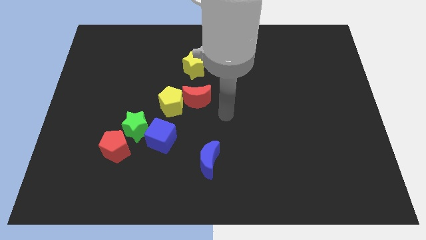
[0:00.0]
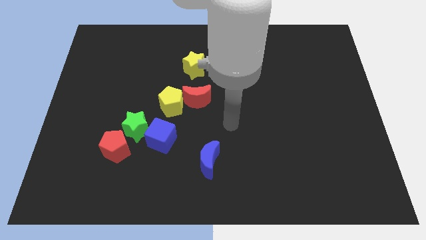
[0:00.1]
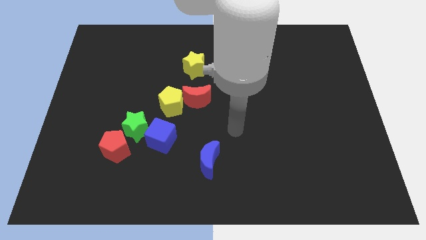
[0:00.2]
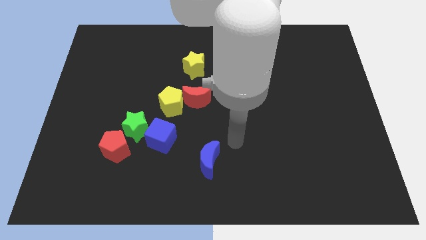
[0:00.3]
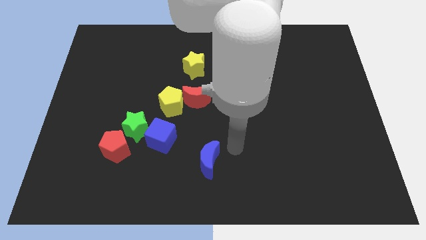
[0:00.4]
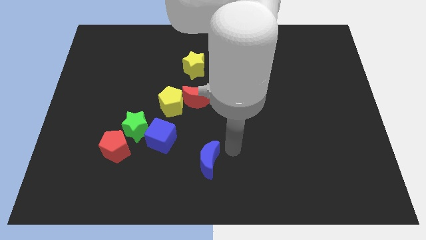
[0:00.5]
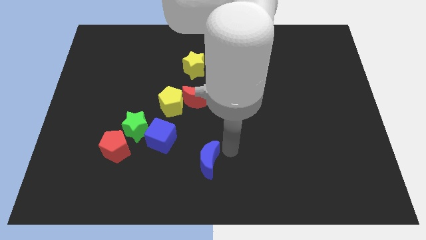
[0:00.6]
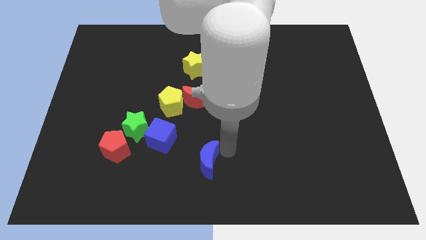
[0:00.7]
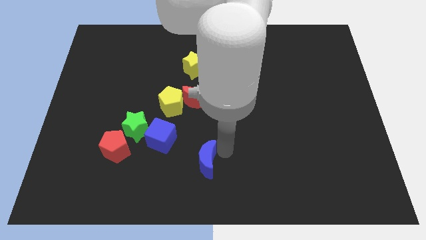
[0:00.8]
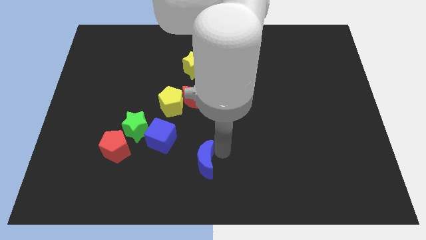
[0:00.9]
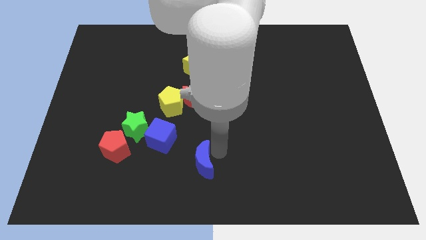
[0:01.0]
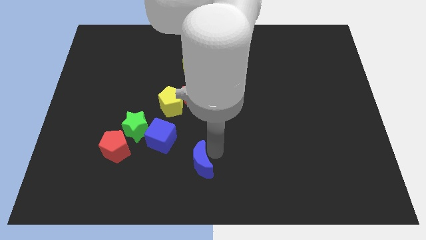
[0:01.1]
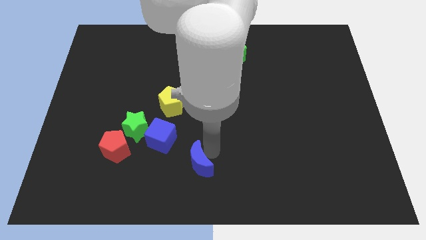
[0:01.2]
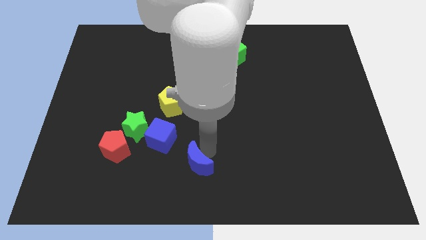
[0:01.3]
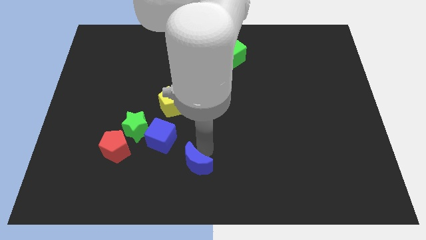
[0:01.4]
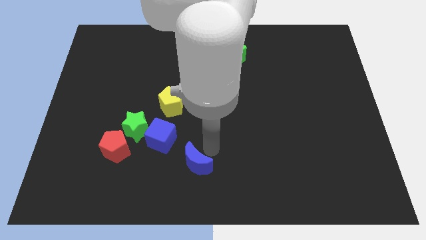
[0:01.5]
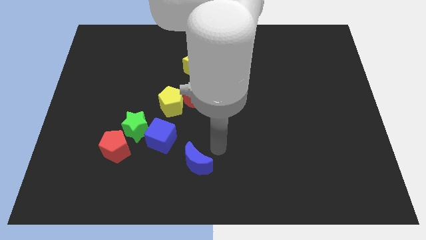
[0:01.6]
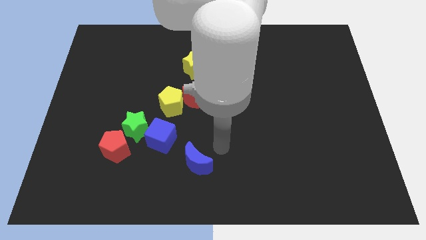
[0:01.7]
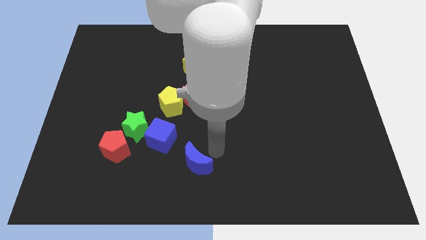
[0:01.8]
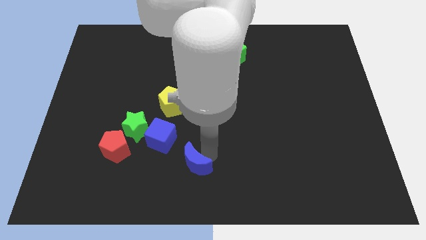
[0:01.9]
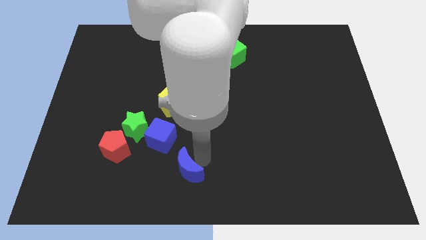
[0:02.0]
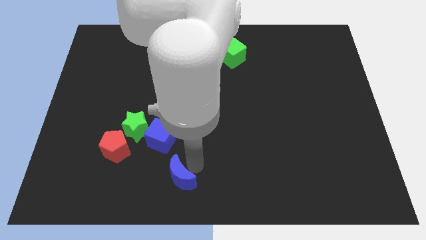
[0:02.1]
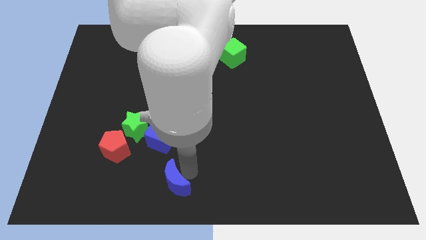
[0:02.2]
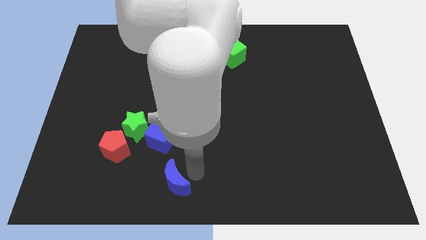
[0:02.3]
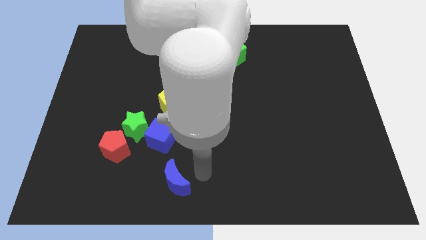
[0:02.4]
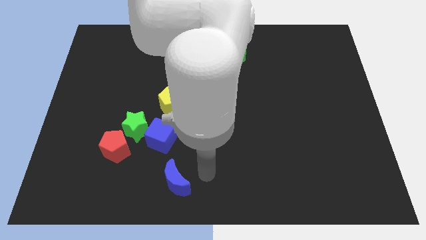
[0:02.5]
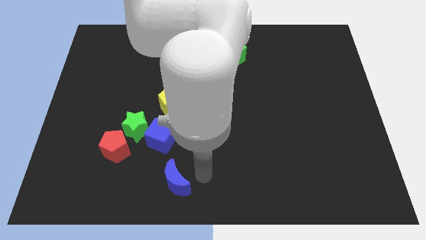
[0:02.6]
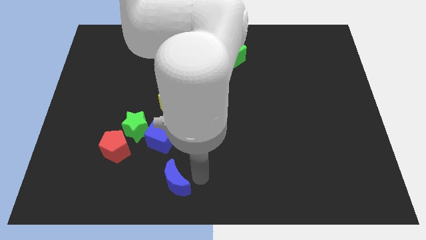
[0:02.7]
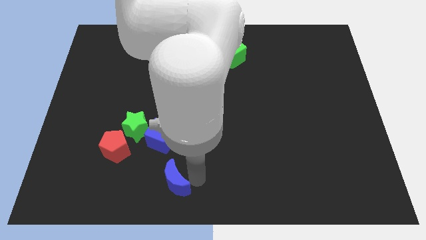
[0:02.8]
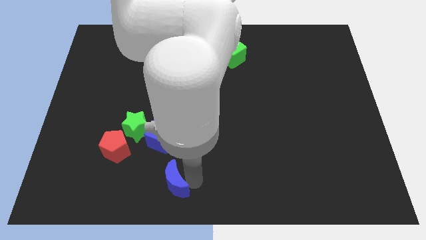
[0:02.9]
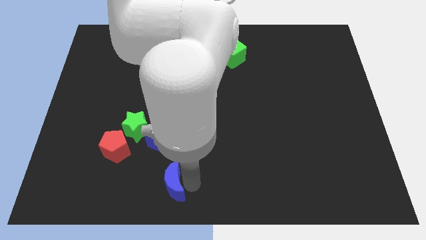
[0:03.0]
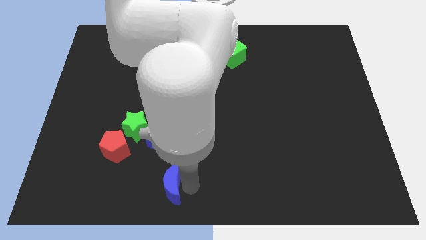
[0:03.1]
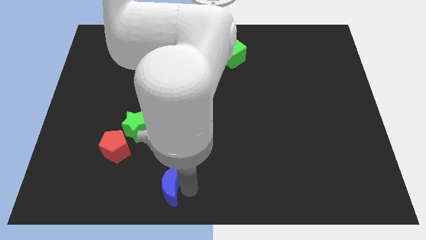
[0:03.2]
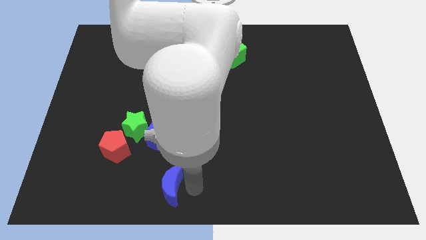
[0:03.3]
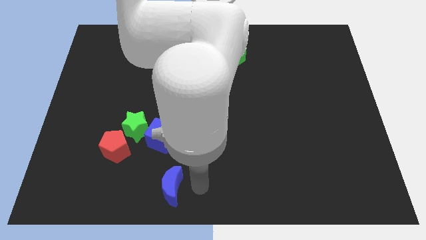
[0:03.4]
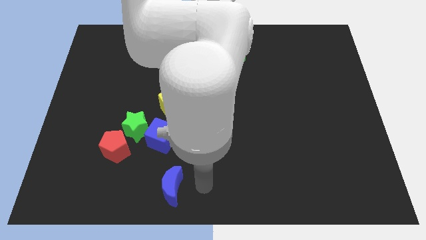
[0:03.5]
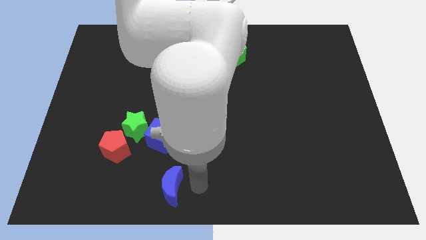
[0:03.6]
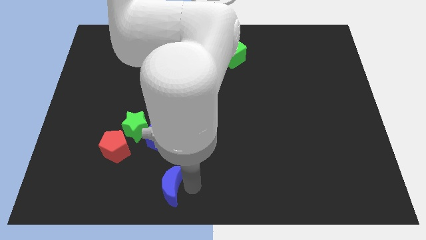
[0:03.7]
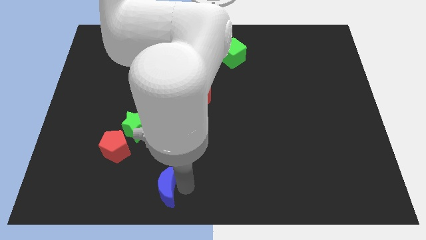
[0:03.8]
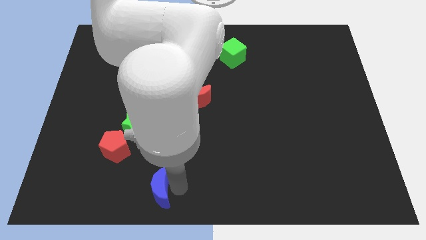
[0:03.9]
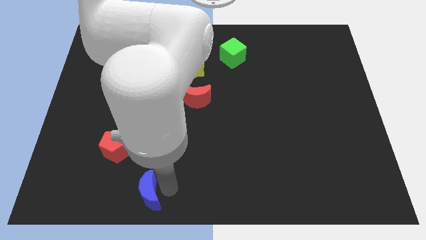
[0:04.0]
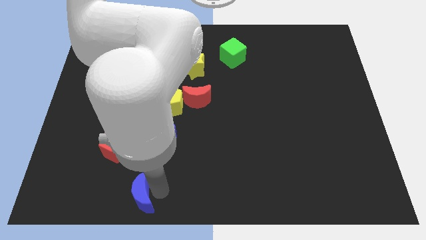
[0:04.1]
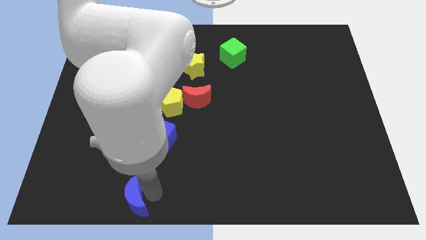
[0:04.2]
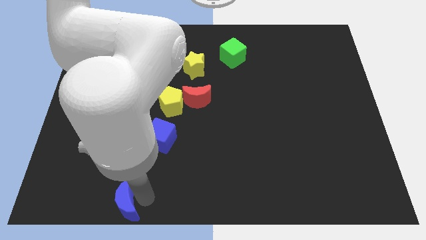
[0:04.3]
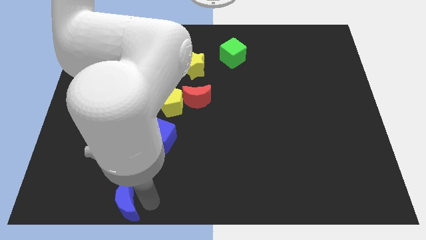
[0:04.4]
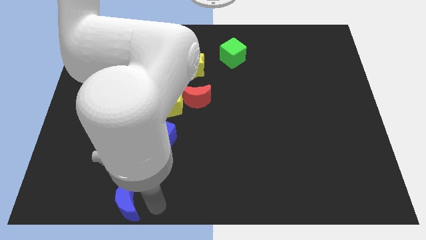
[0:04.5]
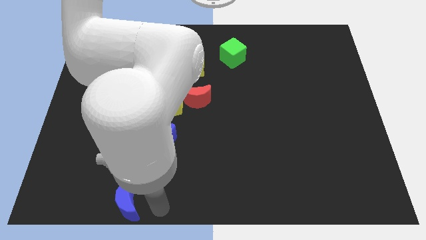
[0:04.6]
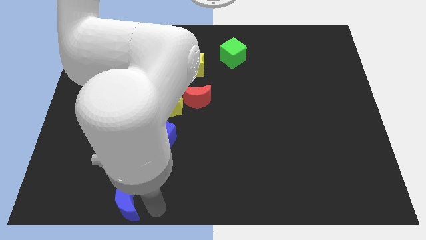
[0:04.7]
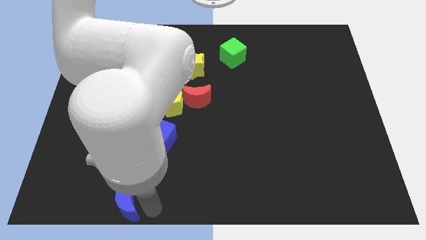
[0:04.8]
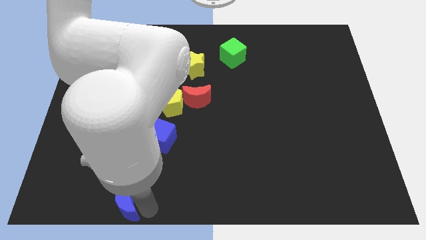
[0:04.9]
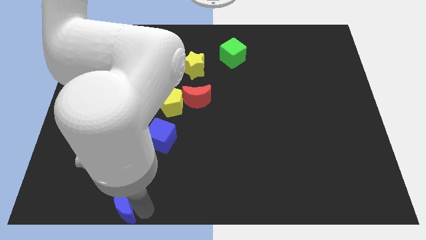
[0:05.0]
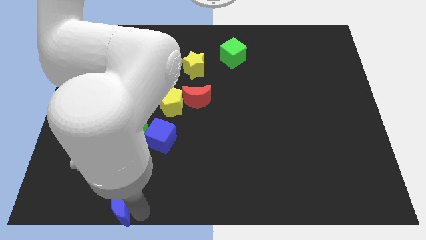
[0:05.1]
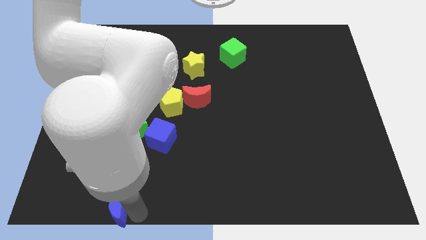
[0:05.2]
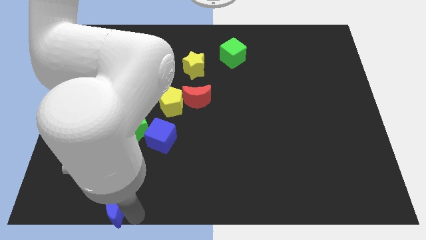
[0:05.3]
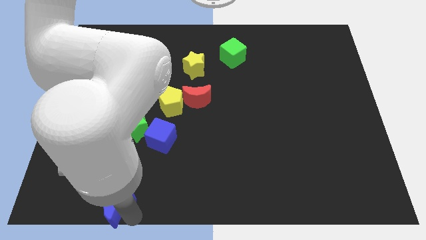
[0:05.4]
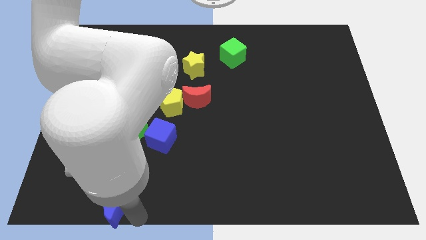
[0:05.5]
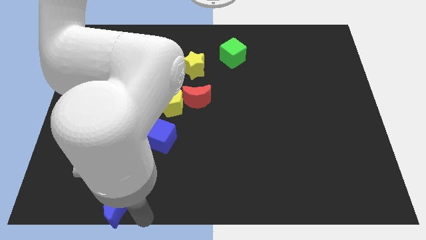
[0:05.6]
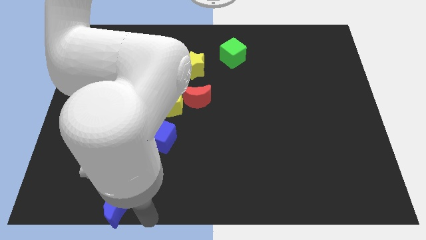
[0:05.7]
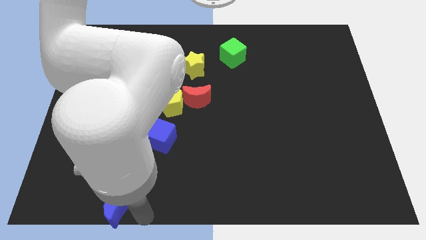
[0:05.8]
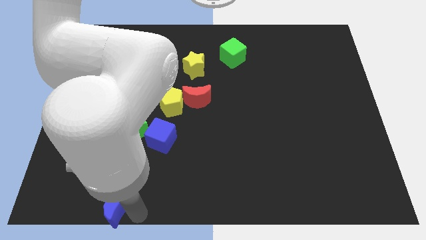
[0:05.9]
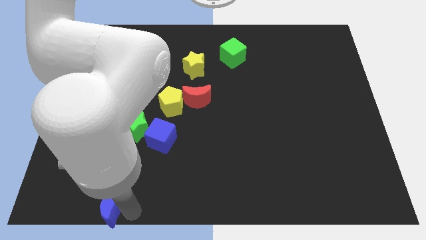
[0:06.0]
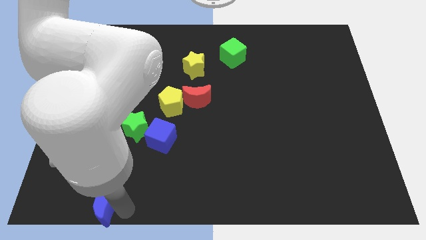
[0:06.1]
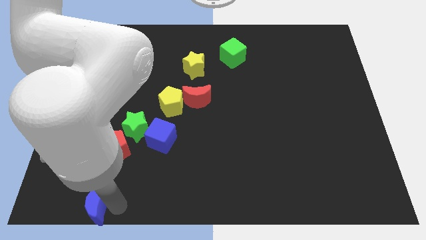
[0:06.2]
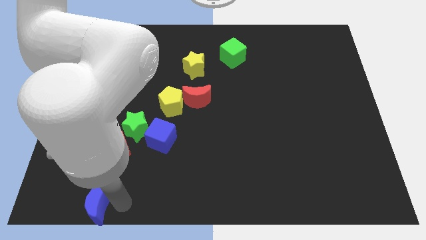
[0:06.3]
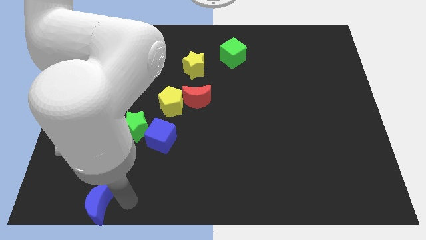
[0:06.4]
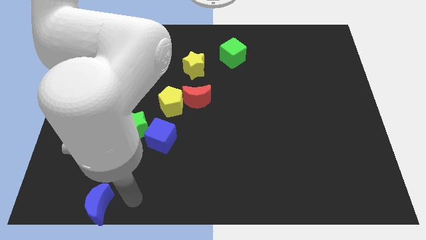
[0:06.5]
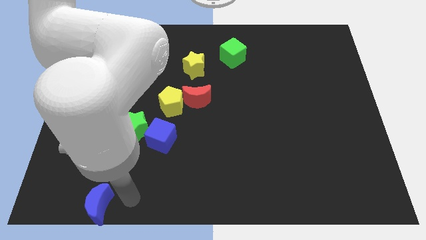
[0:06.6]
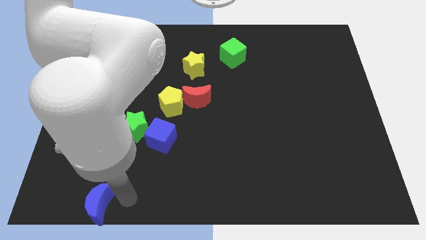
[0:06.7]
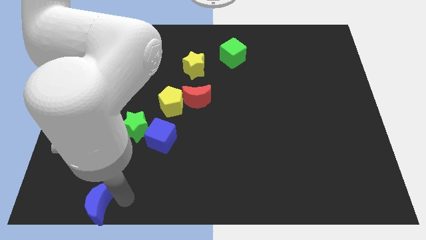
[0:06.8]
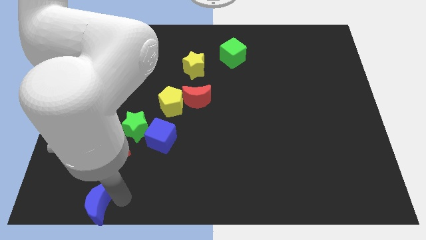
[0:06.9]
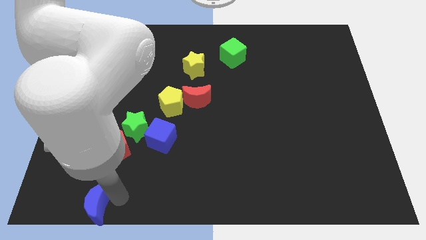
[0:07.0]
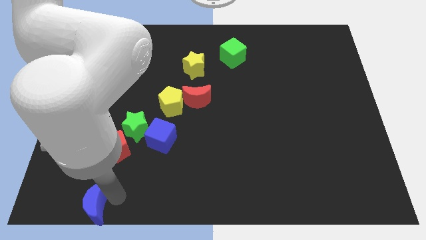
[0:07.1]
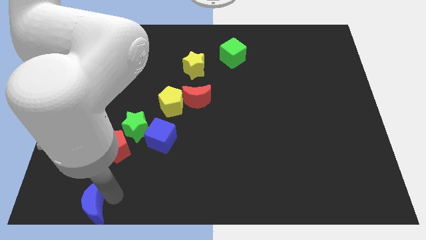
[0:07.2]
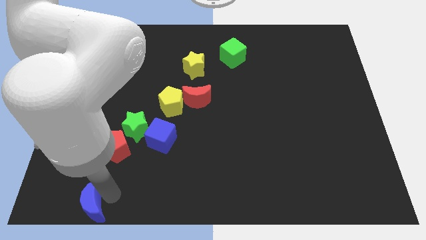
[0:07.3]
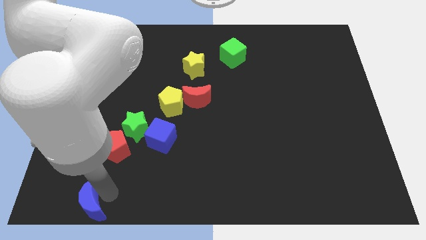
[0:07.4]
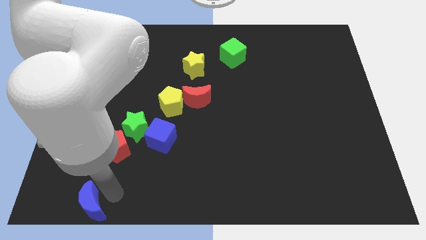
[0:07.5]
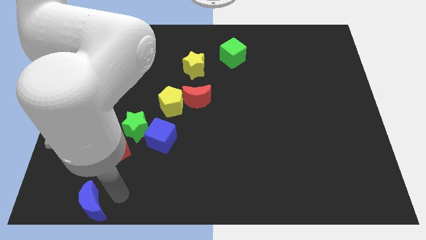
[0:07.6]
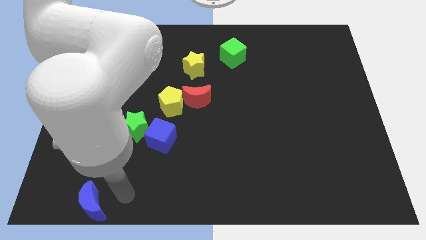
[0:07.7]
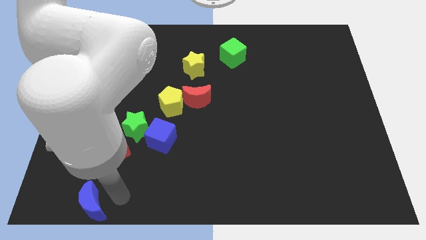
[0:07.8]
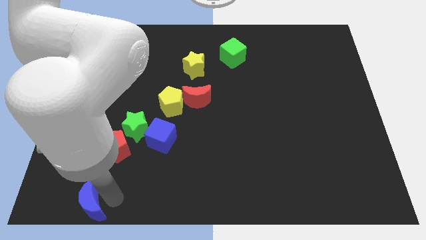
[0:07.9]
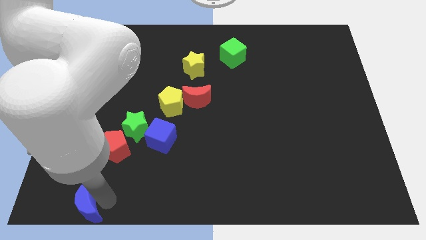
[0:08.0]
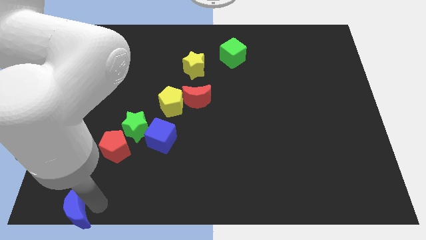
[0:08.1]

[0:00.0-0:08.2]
put the blue moon to the bottom left
